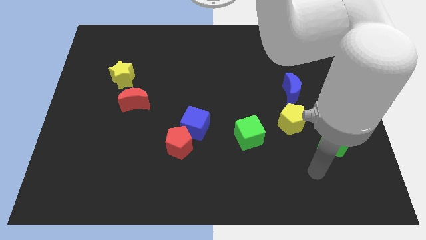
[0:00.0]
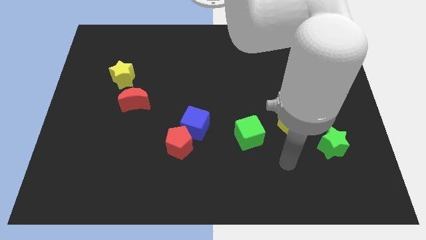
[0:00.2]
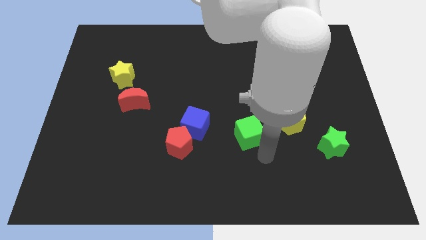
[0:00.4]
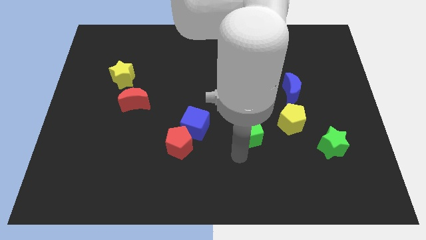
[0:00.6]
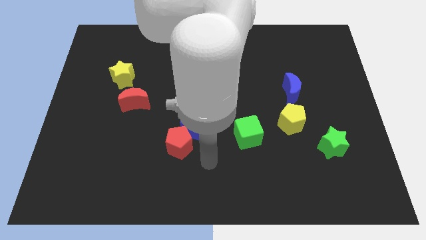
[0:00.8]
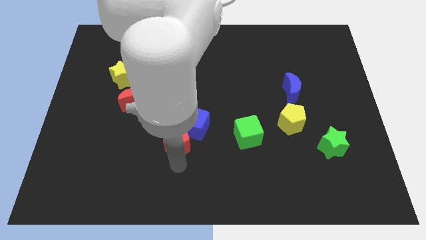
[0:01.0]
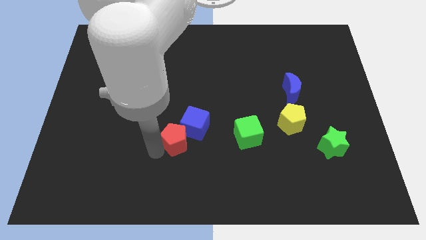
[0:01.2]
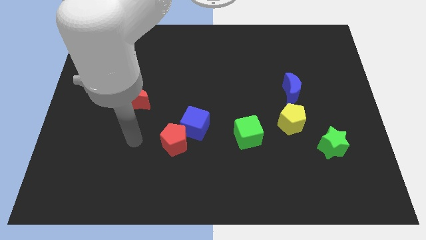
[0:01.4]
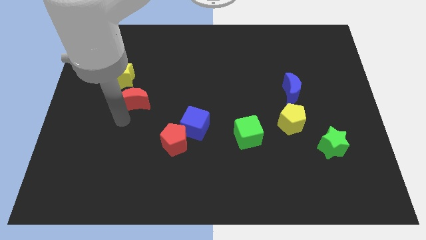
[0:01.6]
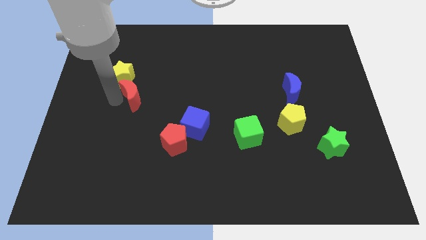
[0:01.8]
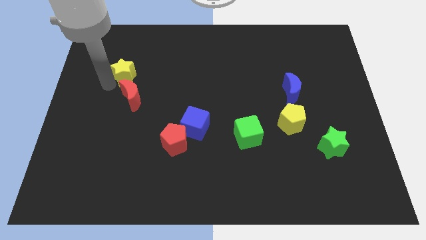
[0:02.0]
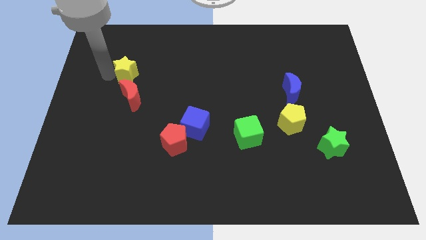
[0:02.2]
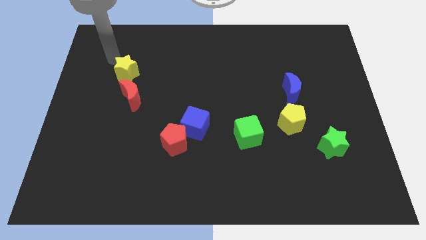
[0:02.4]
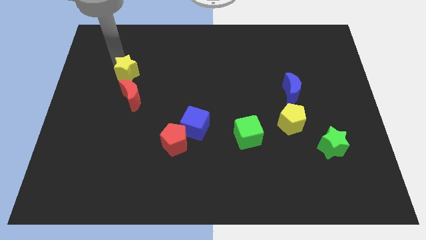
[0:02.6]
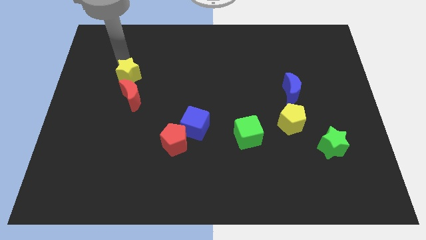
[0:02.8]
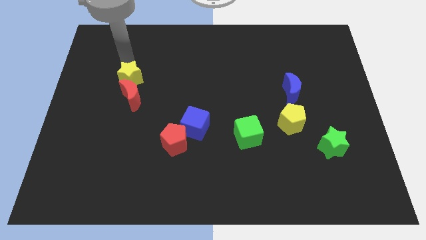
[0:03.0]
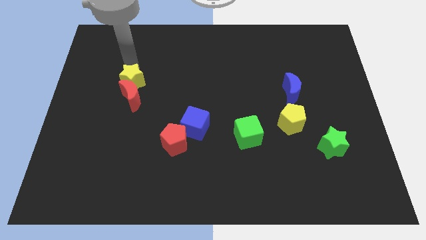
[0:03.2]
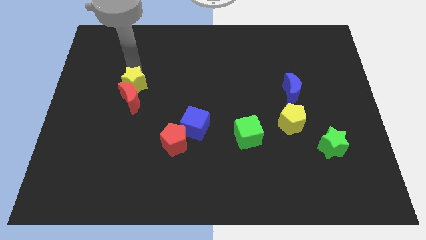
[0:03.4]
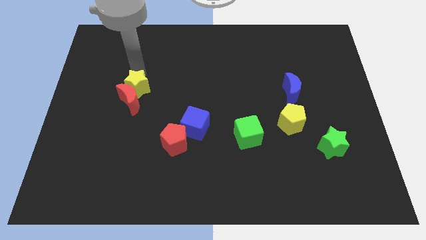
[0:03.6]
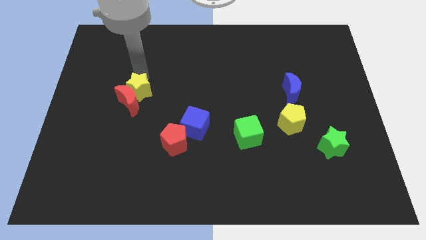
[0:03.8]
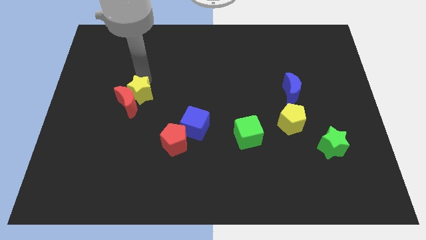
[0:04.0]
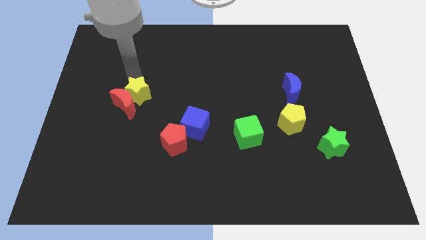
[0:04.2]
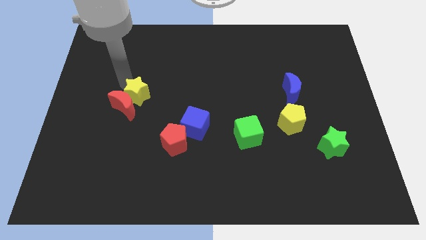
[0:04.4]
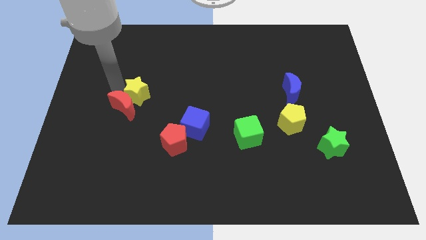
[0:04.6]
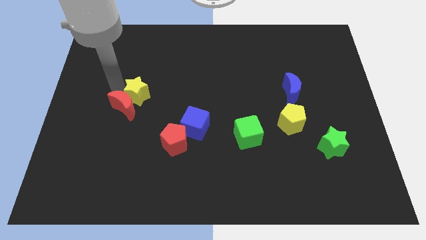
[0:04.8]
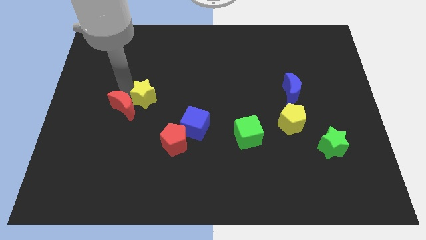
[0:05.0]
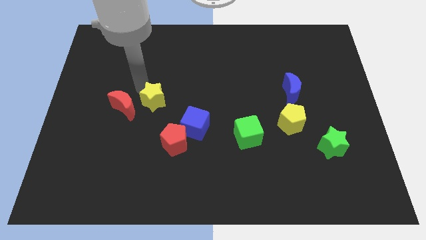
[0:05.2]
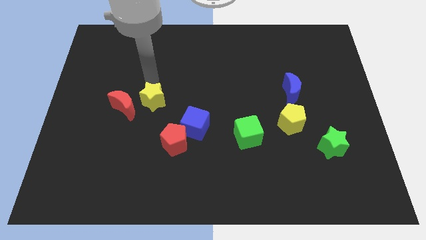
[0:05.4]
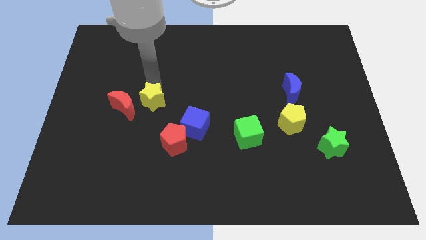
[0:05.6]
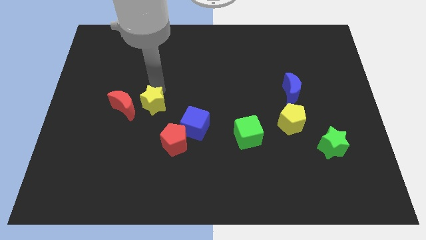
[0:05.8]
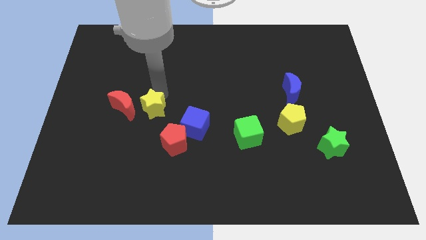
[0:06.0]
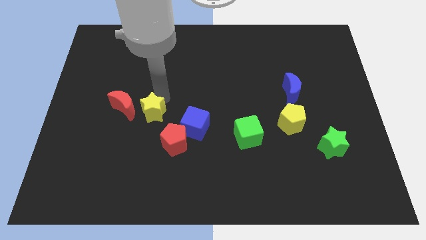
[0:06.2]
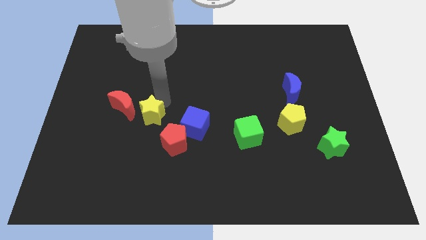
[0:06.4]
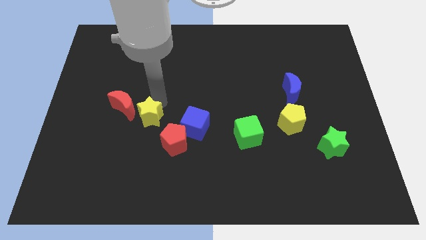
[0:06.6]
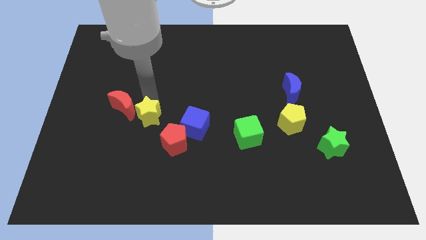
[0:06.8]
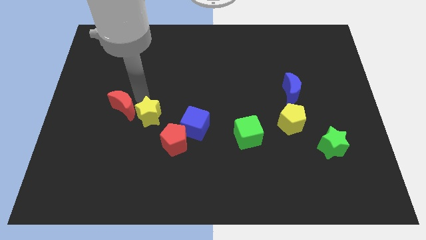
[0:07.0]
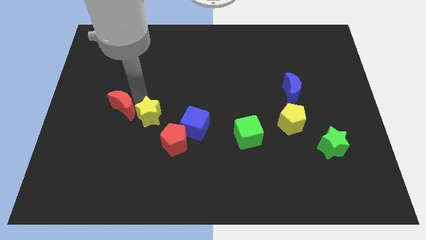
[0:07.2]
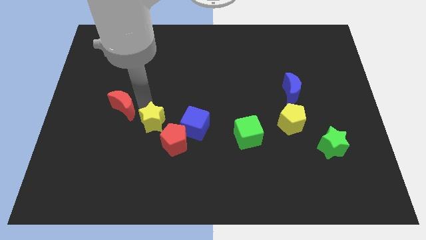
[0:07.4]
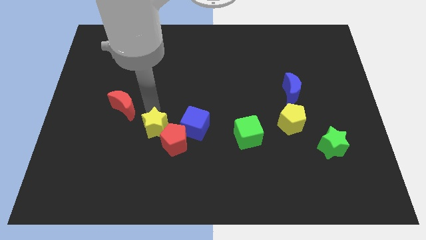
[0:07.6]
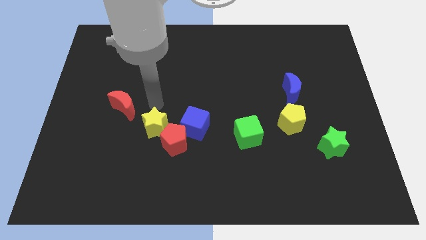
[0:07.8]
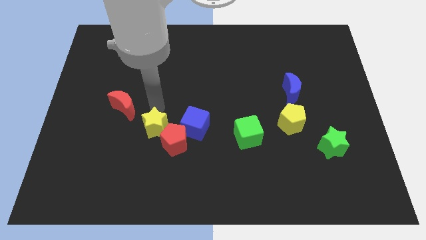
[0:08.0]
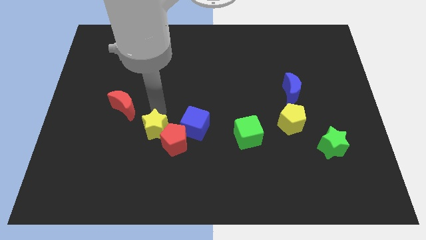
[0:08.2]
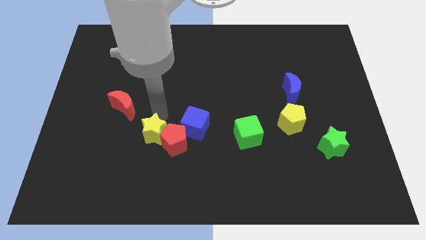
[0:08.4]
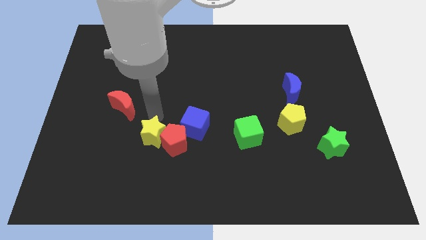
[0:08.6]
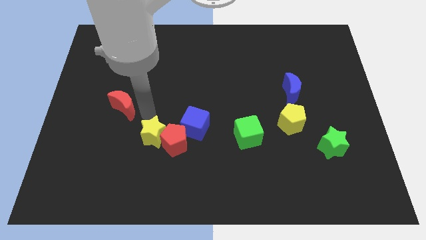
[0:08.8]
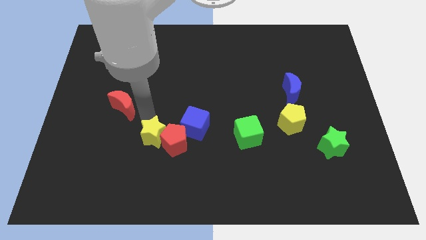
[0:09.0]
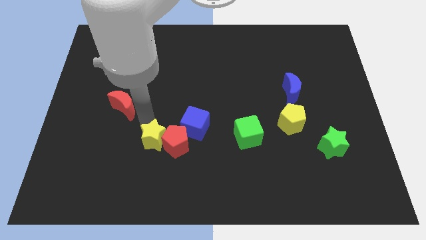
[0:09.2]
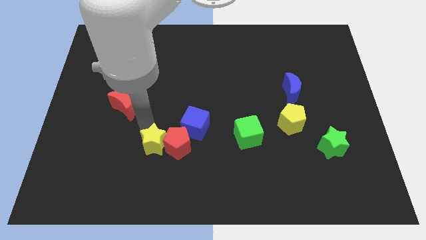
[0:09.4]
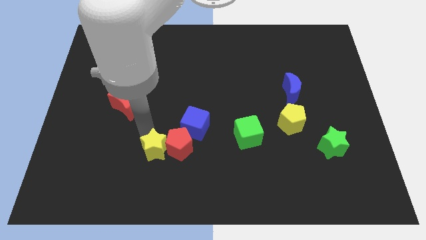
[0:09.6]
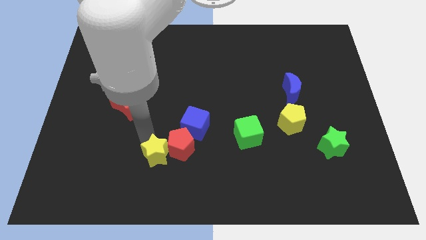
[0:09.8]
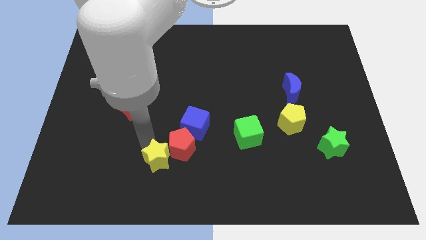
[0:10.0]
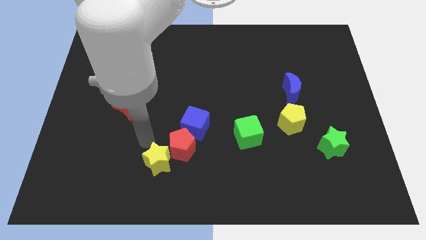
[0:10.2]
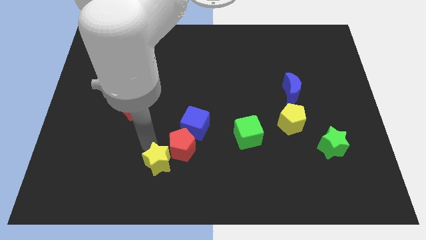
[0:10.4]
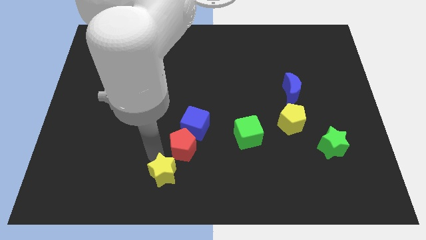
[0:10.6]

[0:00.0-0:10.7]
push the yellow star to the bottom
